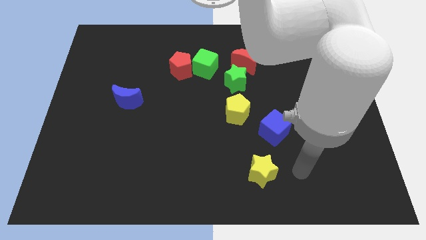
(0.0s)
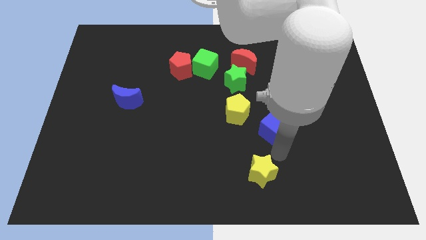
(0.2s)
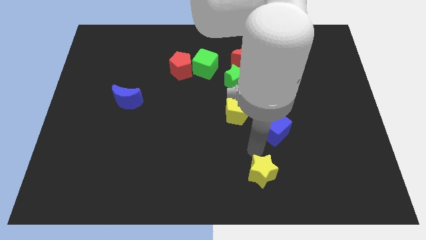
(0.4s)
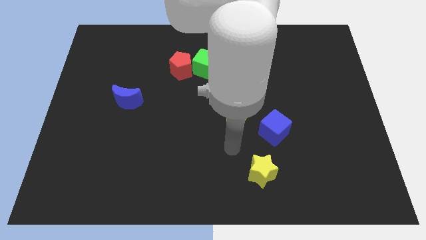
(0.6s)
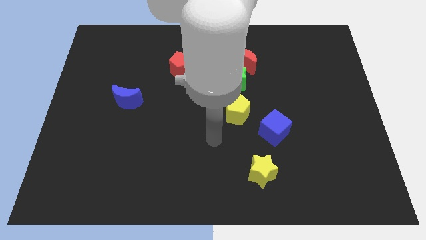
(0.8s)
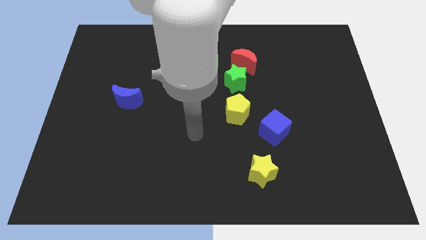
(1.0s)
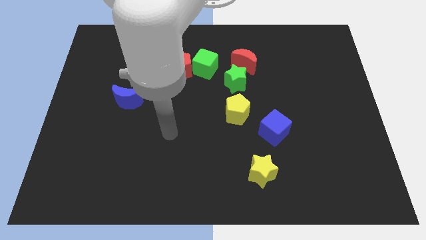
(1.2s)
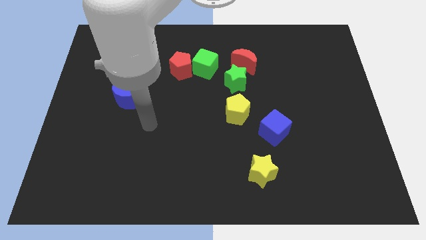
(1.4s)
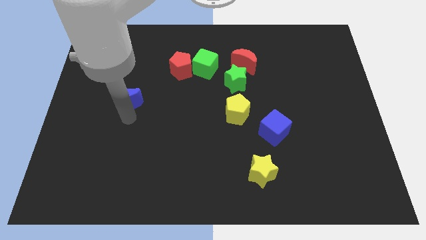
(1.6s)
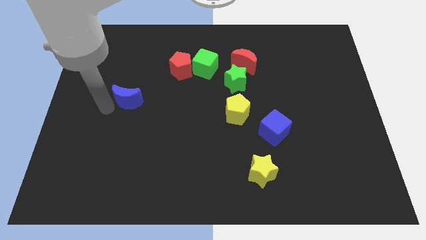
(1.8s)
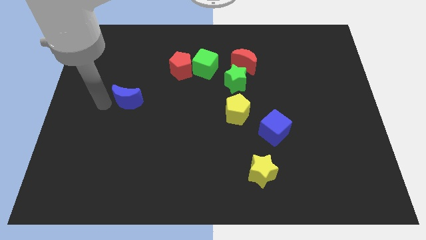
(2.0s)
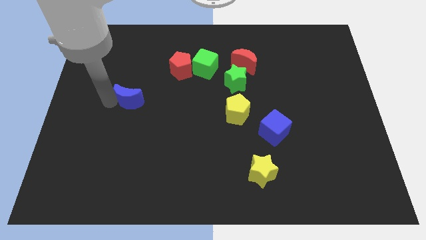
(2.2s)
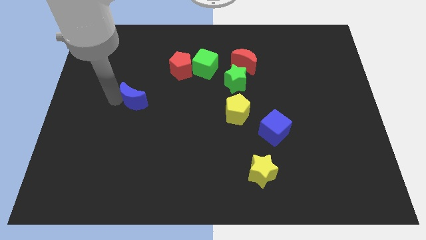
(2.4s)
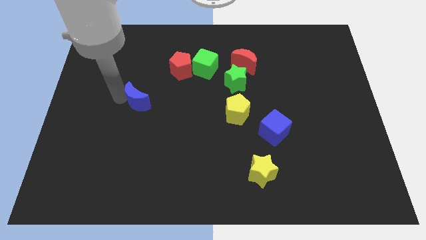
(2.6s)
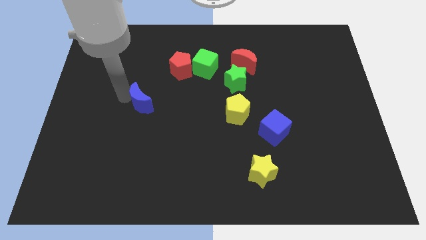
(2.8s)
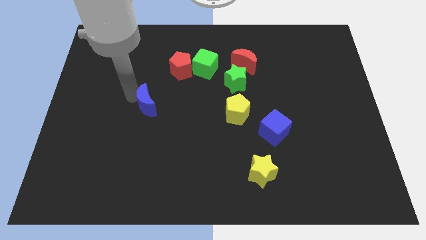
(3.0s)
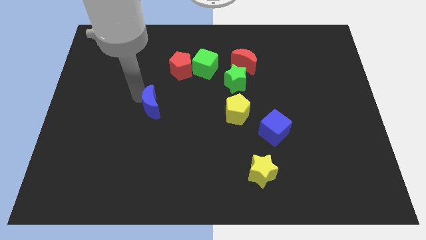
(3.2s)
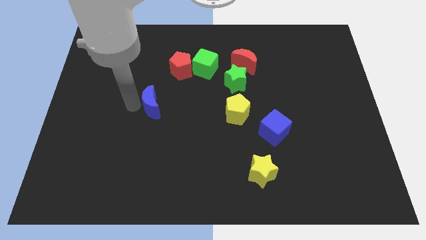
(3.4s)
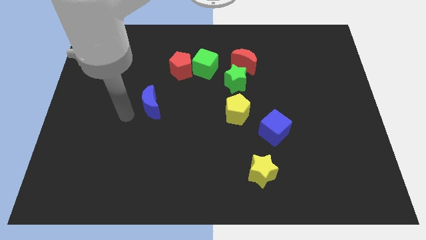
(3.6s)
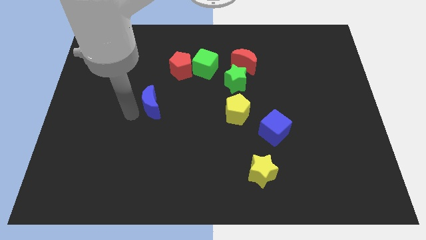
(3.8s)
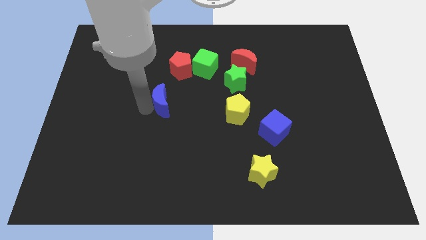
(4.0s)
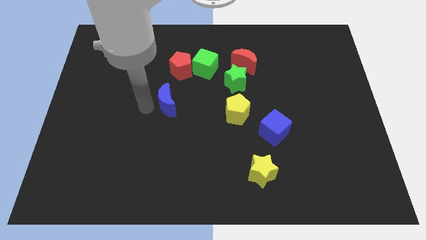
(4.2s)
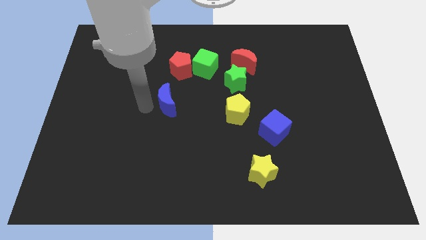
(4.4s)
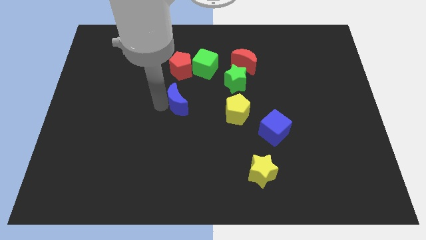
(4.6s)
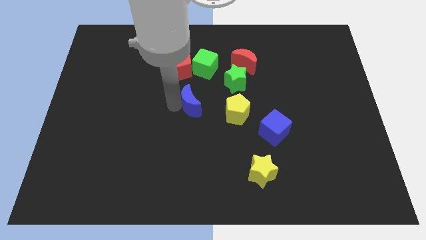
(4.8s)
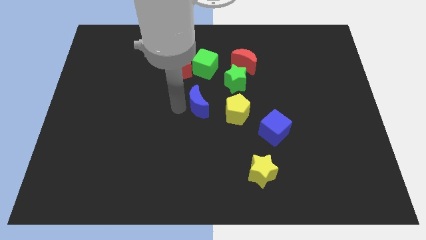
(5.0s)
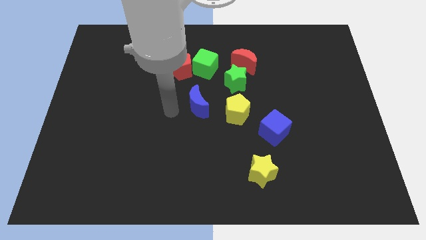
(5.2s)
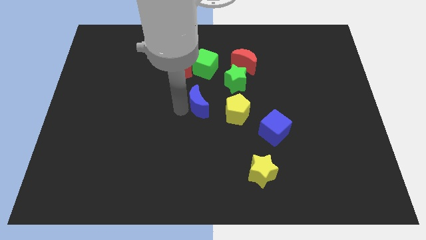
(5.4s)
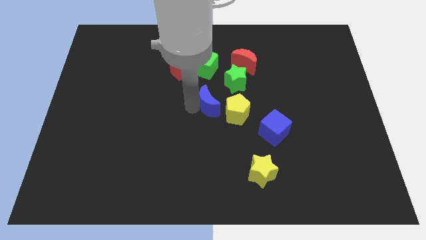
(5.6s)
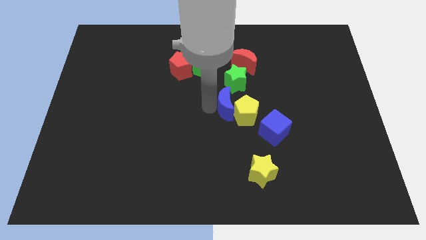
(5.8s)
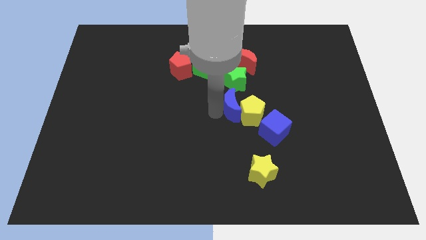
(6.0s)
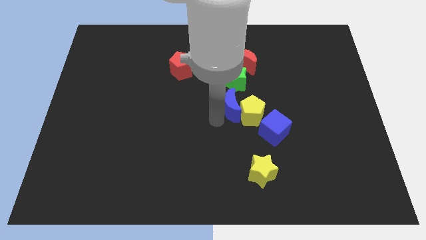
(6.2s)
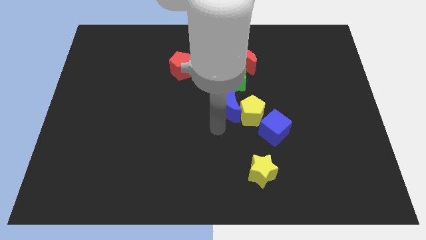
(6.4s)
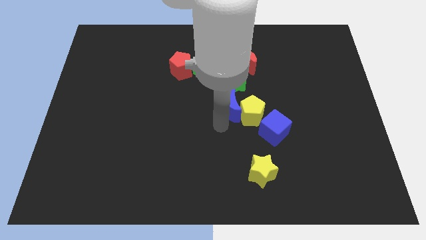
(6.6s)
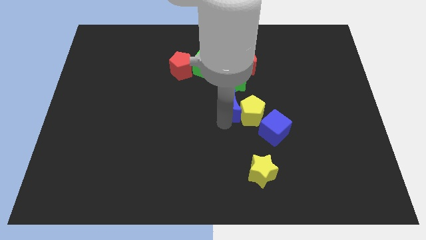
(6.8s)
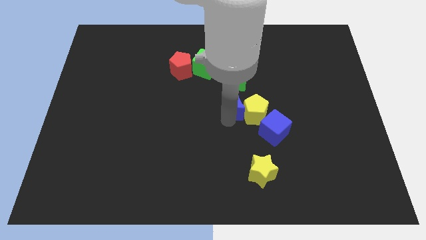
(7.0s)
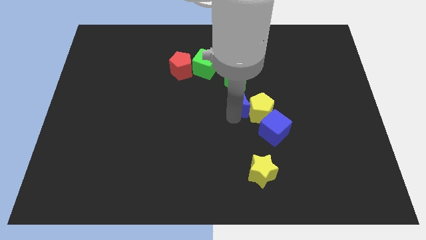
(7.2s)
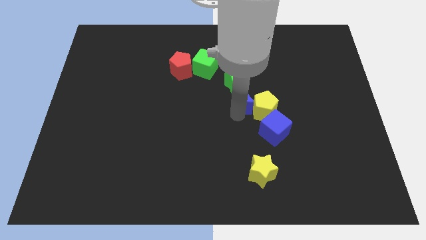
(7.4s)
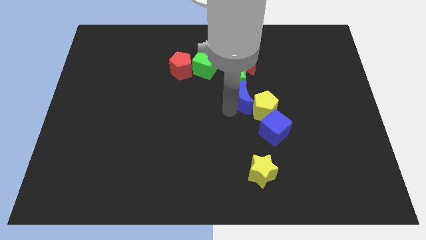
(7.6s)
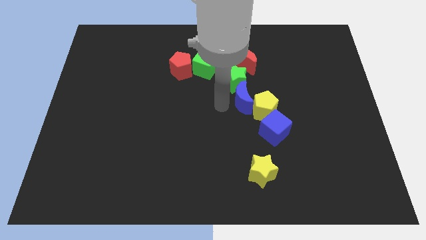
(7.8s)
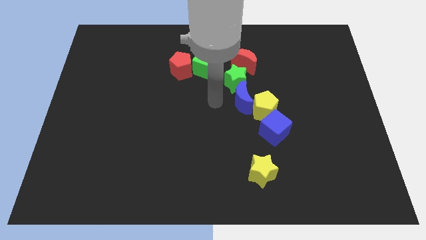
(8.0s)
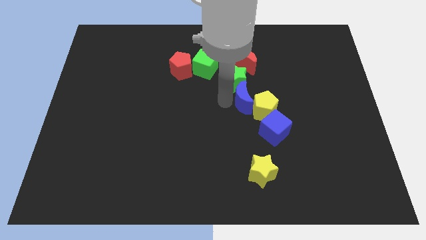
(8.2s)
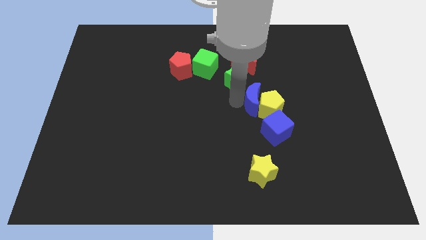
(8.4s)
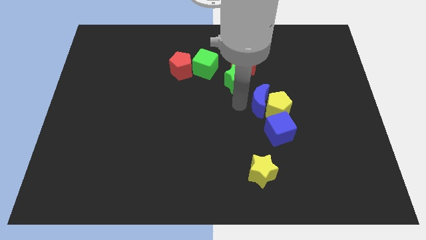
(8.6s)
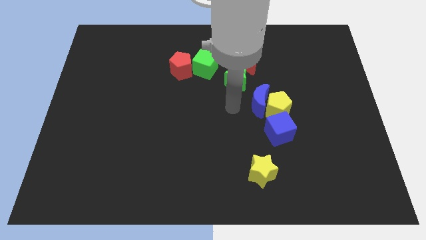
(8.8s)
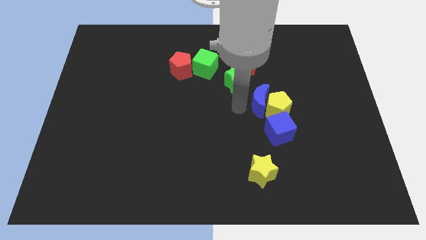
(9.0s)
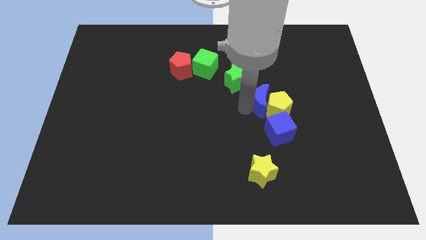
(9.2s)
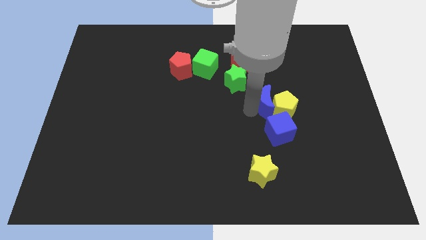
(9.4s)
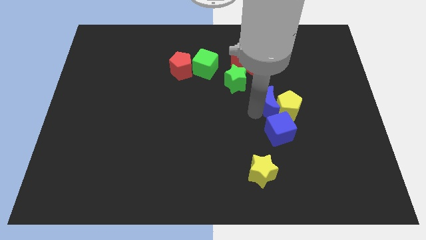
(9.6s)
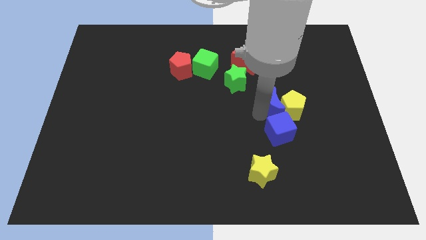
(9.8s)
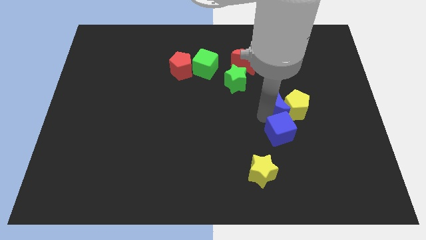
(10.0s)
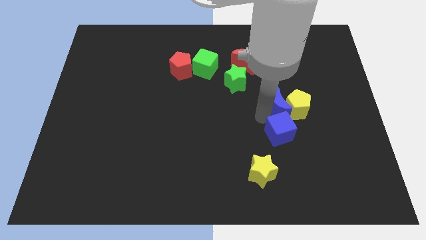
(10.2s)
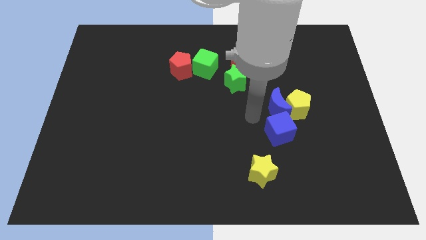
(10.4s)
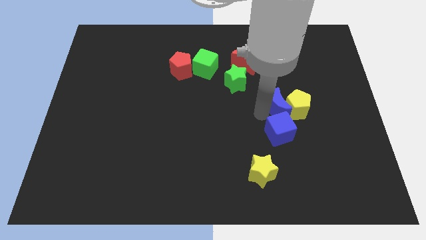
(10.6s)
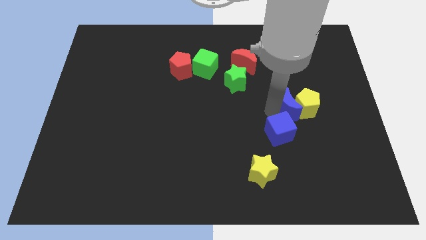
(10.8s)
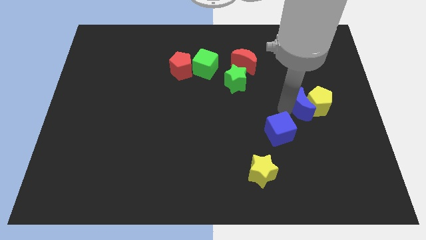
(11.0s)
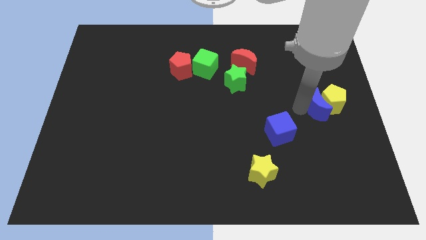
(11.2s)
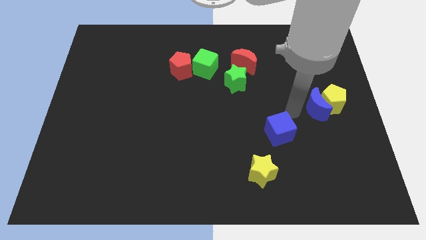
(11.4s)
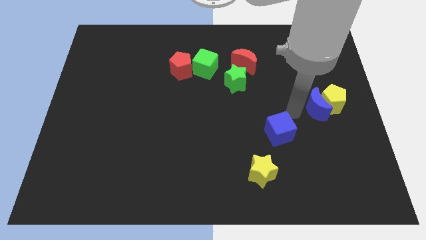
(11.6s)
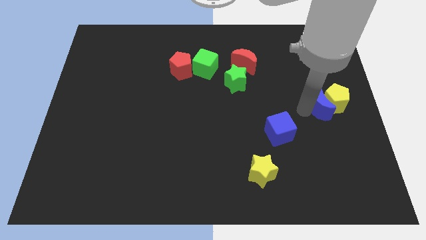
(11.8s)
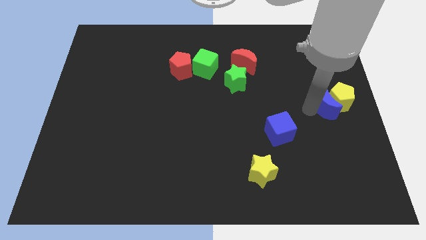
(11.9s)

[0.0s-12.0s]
slide the blue moon to the center right
